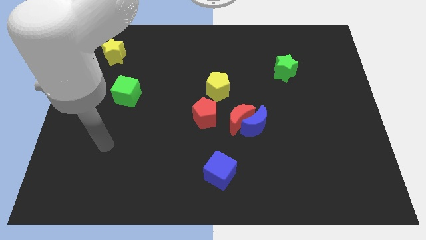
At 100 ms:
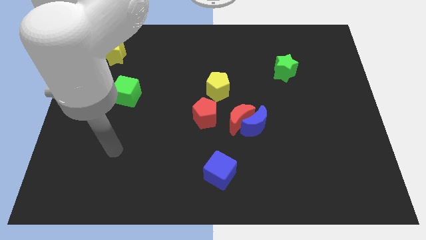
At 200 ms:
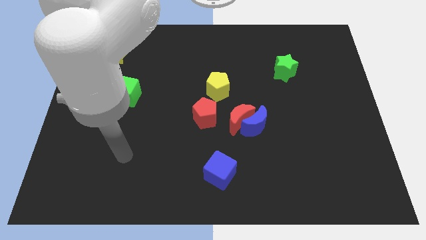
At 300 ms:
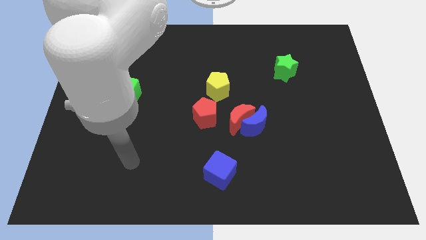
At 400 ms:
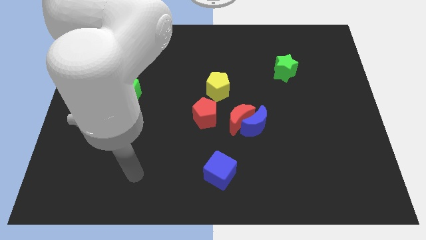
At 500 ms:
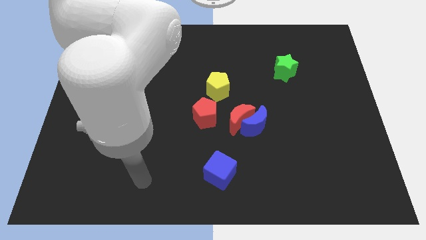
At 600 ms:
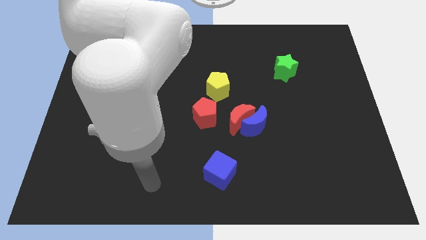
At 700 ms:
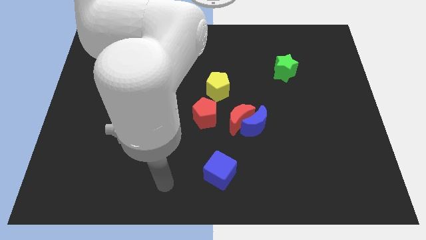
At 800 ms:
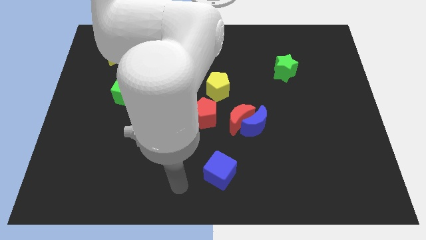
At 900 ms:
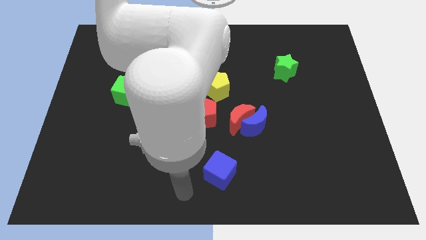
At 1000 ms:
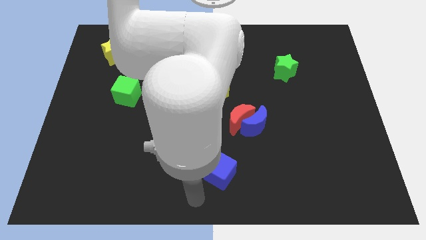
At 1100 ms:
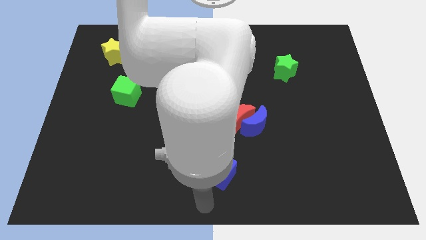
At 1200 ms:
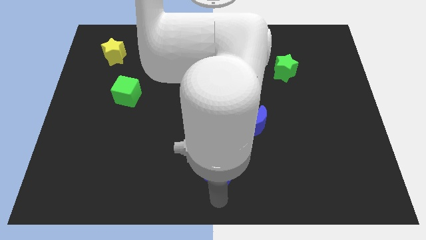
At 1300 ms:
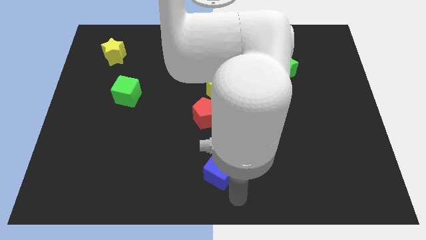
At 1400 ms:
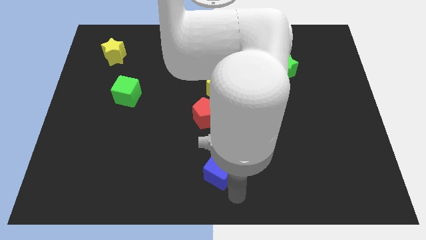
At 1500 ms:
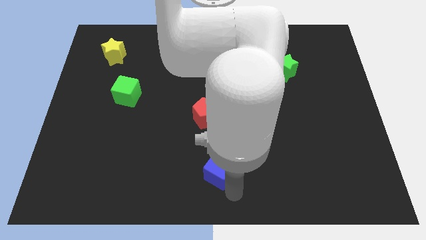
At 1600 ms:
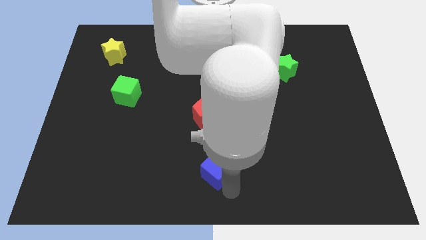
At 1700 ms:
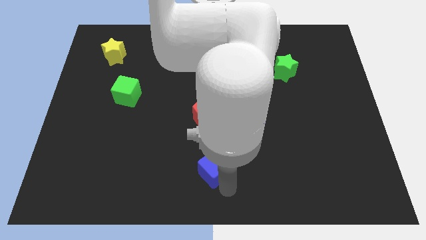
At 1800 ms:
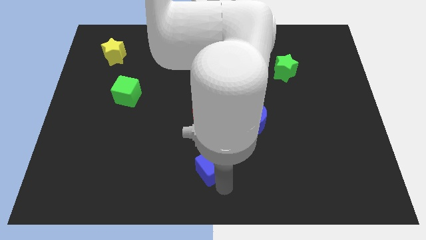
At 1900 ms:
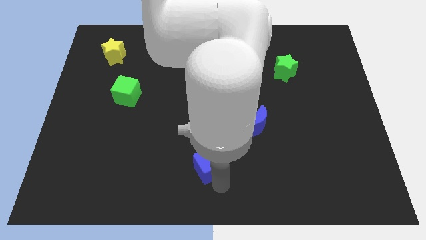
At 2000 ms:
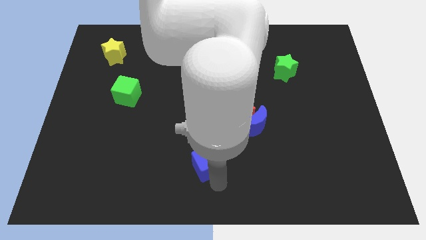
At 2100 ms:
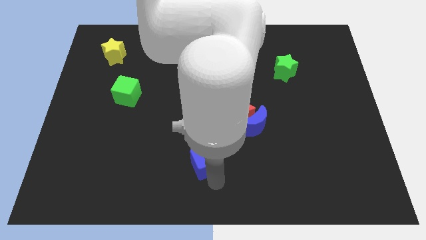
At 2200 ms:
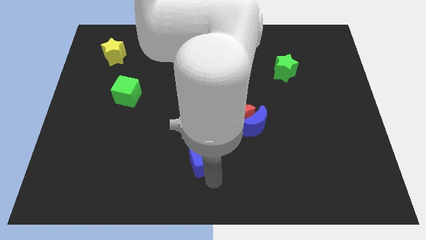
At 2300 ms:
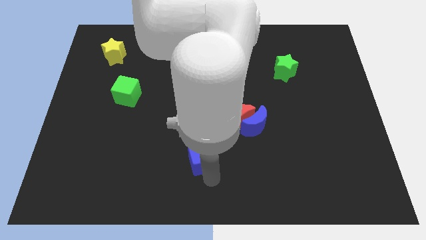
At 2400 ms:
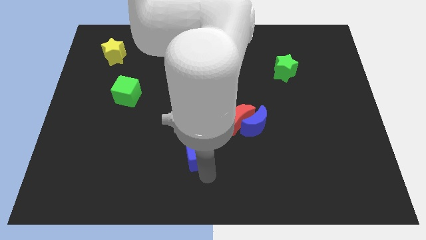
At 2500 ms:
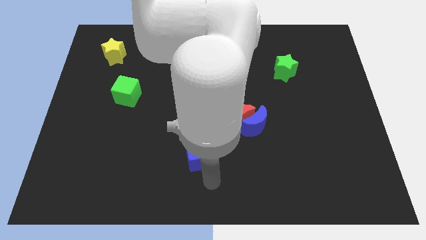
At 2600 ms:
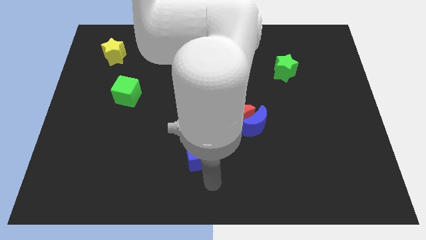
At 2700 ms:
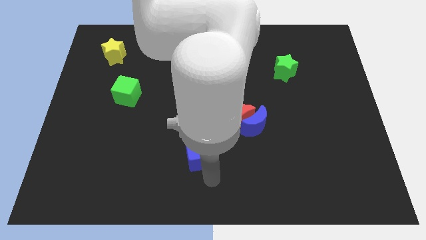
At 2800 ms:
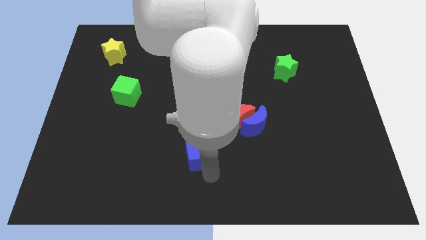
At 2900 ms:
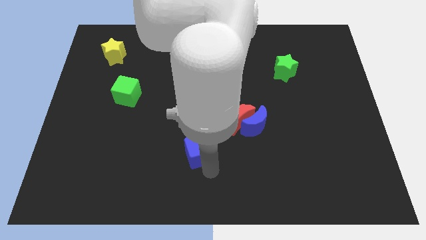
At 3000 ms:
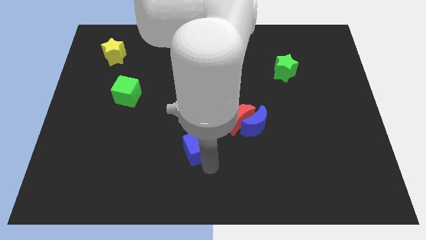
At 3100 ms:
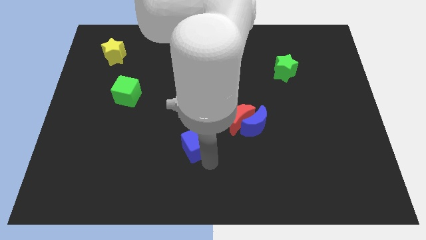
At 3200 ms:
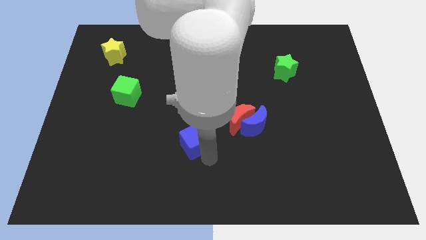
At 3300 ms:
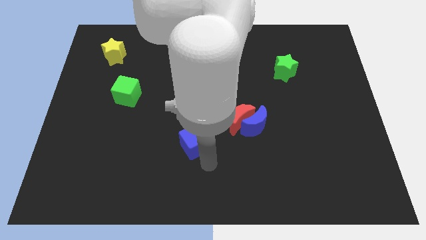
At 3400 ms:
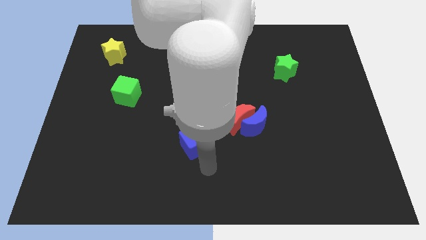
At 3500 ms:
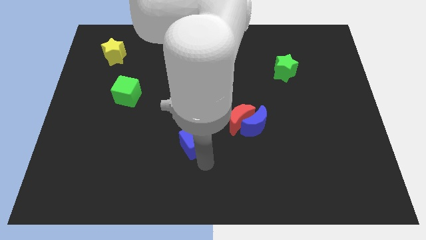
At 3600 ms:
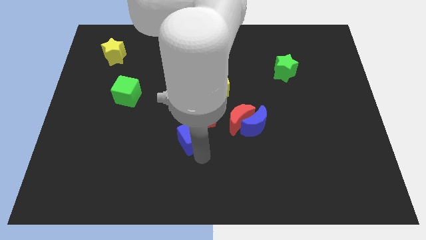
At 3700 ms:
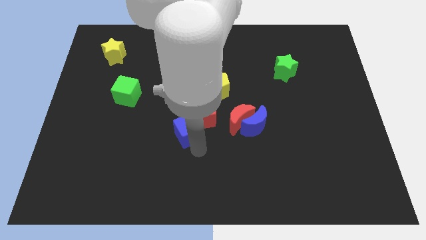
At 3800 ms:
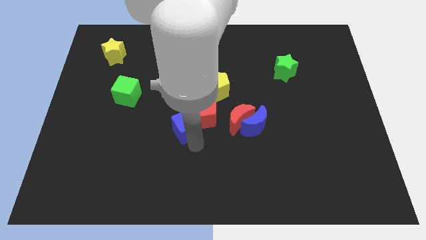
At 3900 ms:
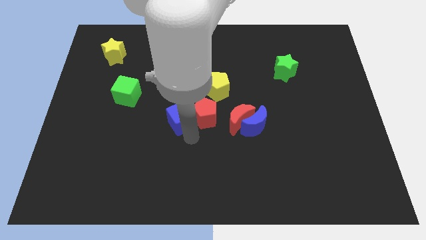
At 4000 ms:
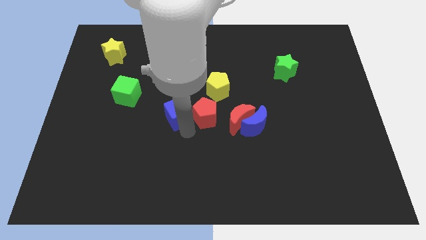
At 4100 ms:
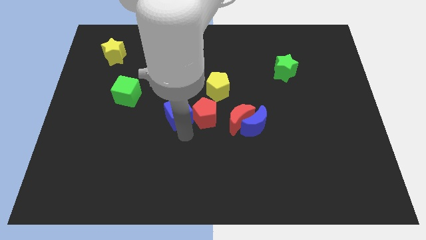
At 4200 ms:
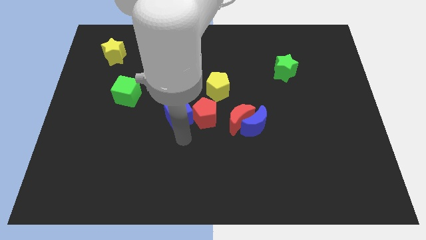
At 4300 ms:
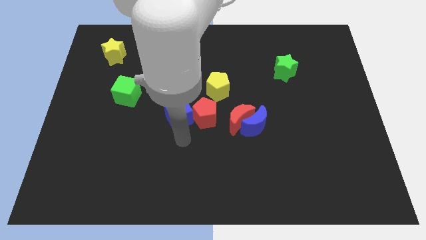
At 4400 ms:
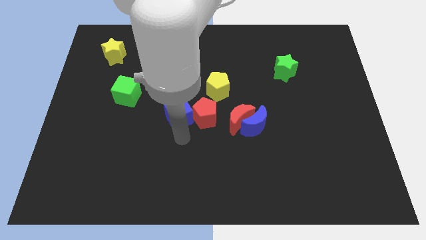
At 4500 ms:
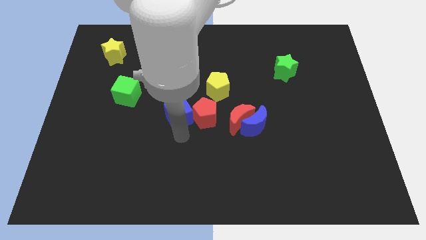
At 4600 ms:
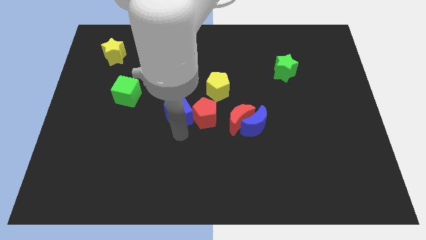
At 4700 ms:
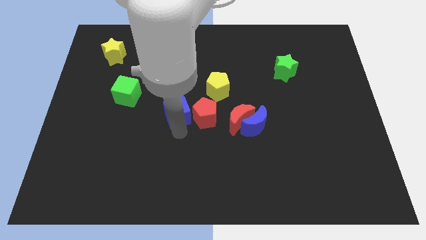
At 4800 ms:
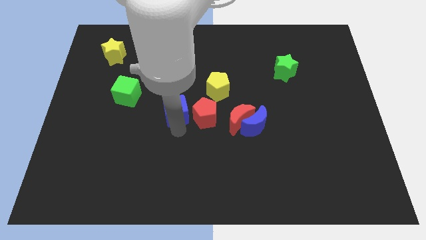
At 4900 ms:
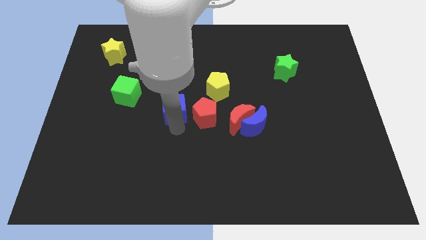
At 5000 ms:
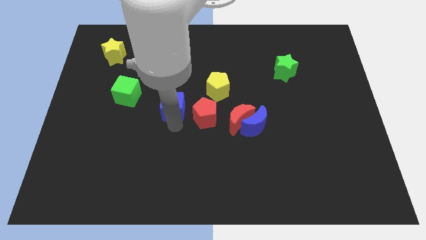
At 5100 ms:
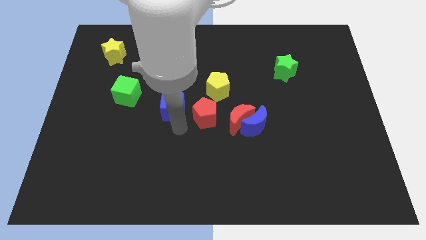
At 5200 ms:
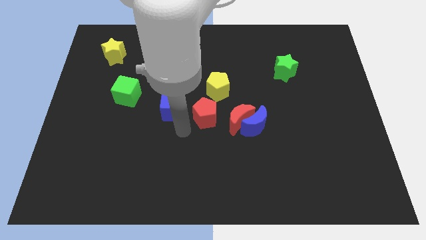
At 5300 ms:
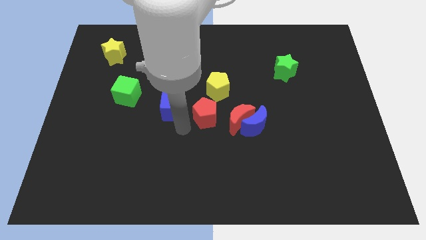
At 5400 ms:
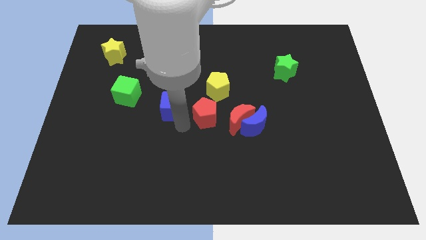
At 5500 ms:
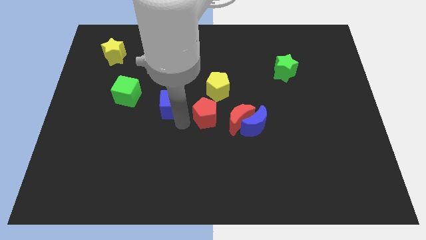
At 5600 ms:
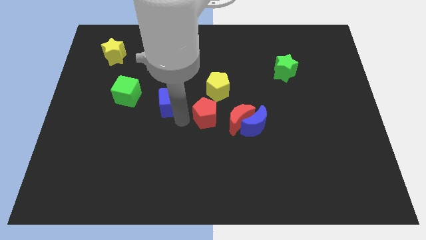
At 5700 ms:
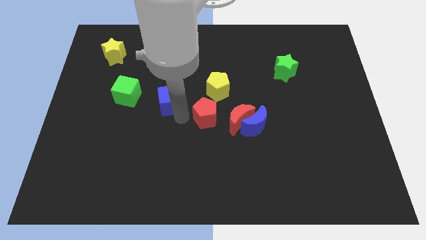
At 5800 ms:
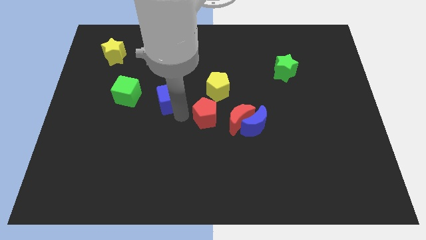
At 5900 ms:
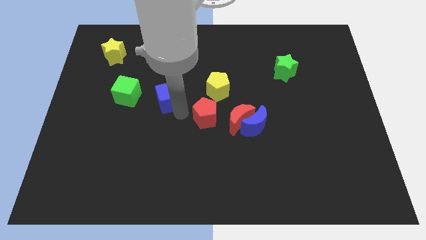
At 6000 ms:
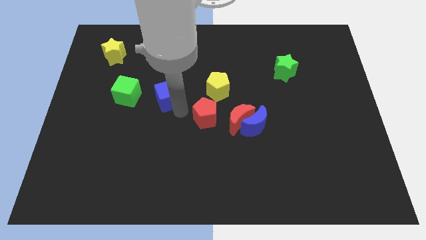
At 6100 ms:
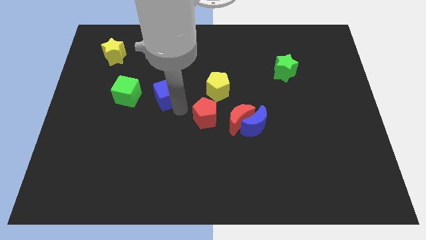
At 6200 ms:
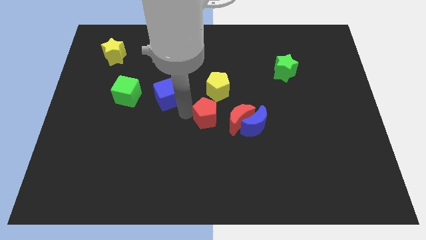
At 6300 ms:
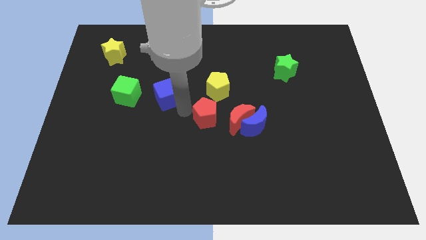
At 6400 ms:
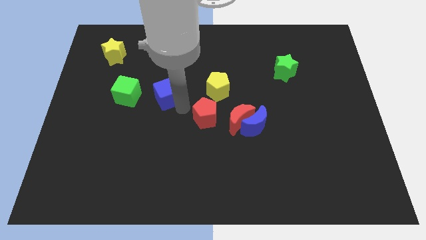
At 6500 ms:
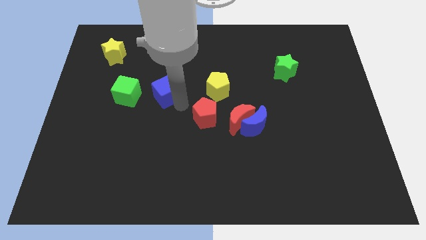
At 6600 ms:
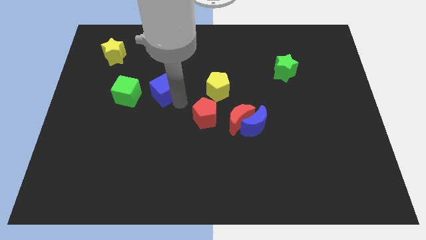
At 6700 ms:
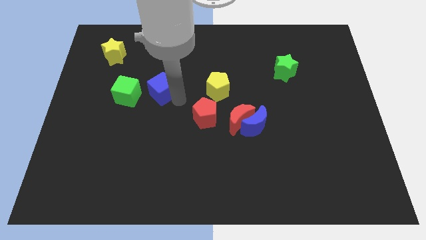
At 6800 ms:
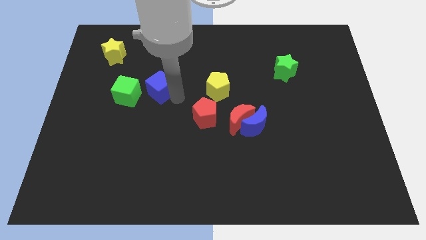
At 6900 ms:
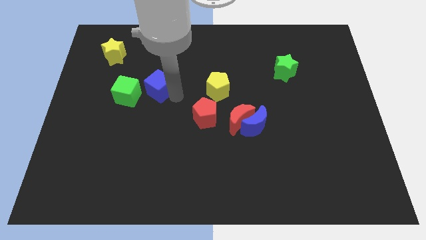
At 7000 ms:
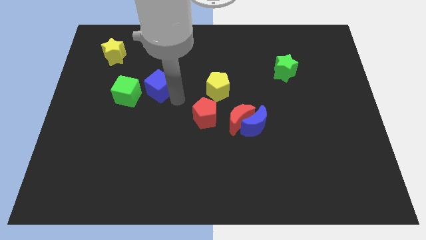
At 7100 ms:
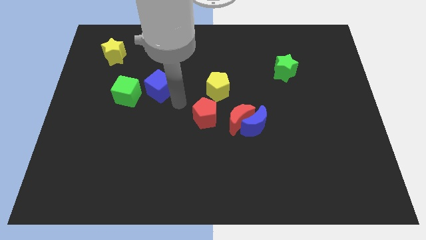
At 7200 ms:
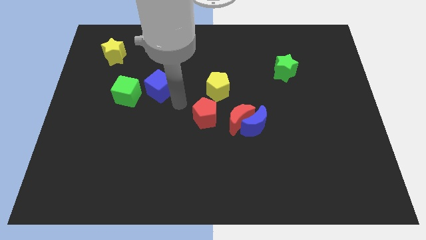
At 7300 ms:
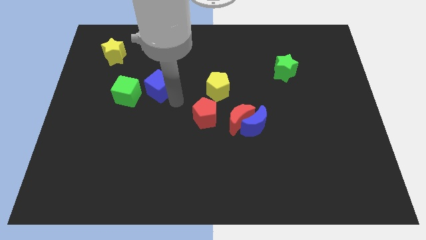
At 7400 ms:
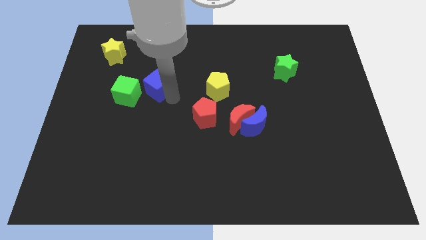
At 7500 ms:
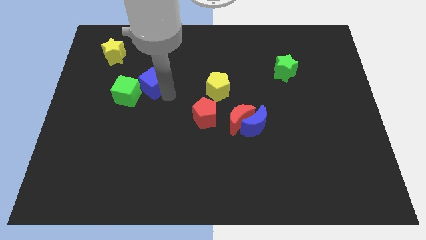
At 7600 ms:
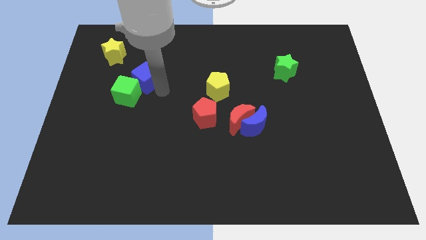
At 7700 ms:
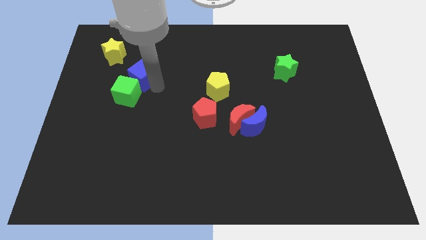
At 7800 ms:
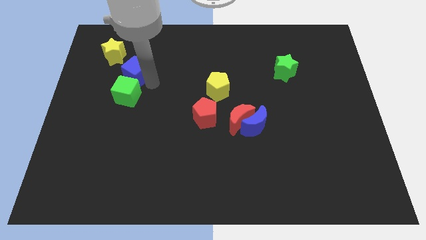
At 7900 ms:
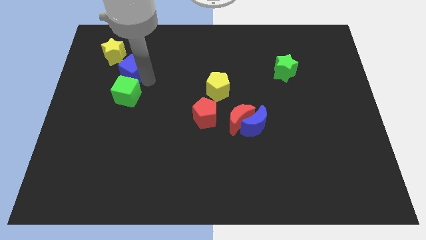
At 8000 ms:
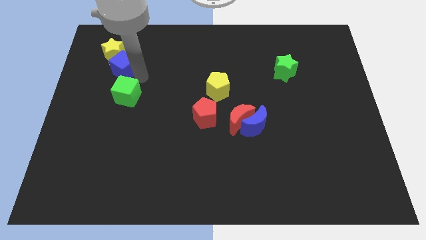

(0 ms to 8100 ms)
move the blue cube next to the yellow star
